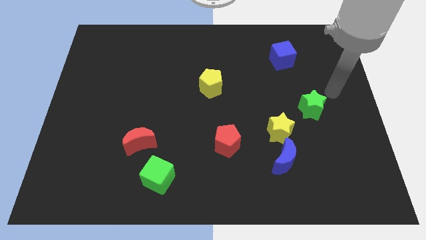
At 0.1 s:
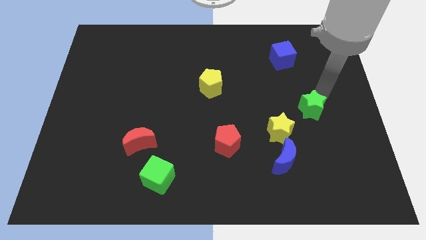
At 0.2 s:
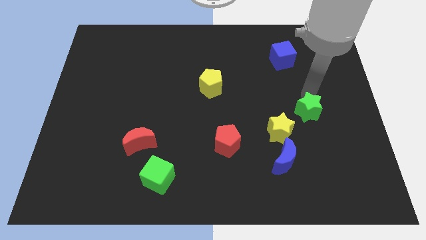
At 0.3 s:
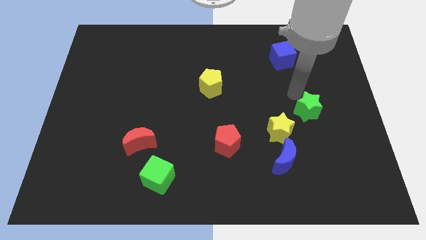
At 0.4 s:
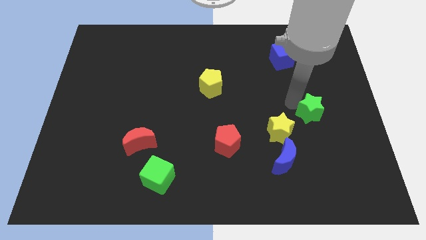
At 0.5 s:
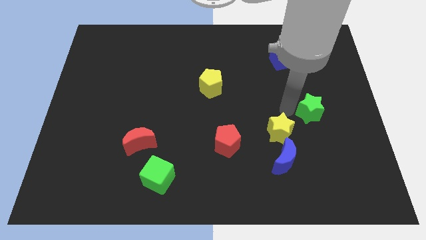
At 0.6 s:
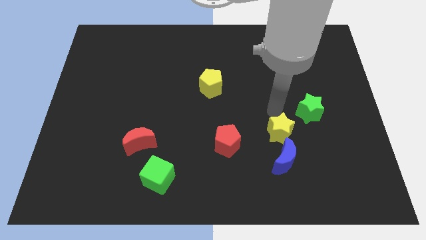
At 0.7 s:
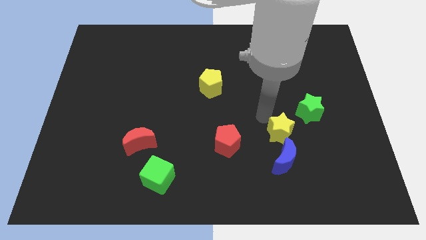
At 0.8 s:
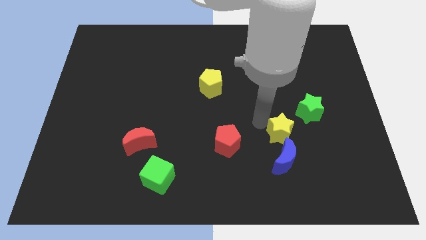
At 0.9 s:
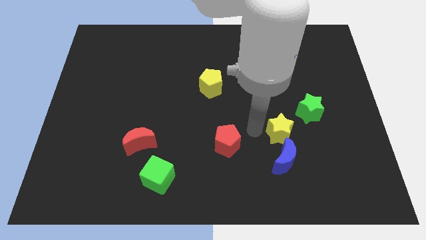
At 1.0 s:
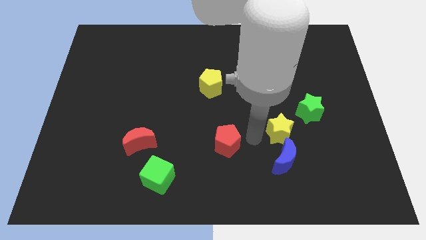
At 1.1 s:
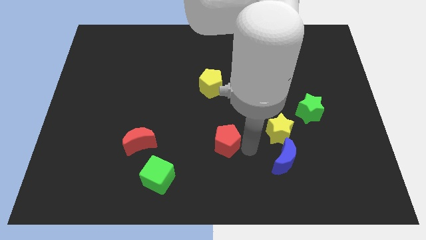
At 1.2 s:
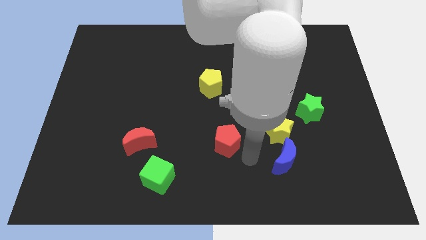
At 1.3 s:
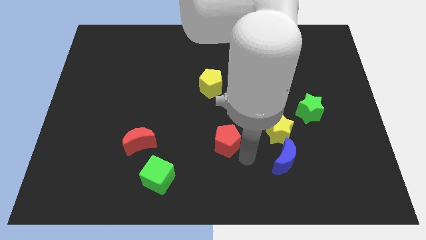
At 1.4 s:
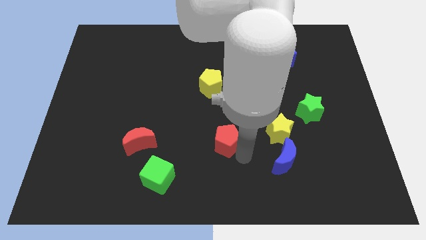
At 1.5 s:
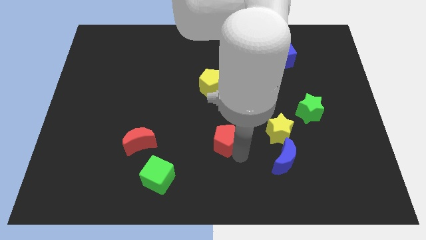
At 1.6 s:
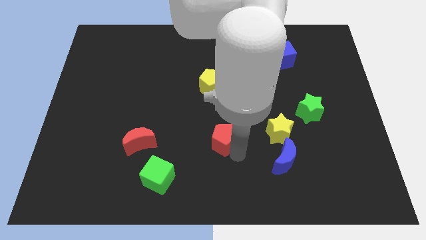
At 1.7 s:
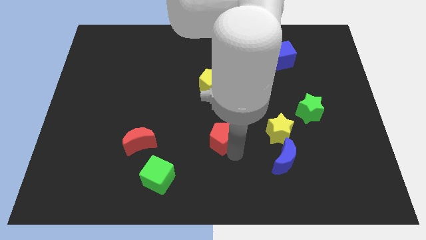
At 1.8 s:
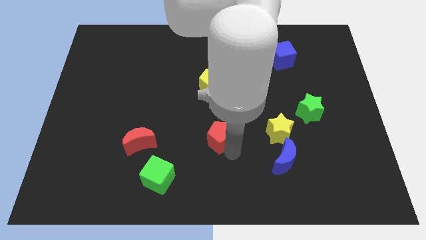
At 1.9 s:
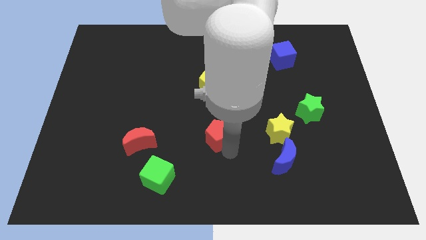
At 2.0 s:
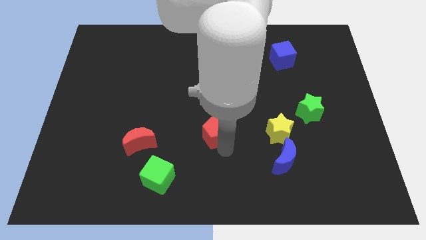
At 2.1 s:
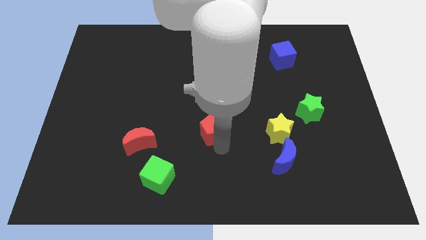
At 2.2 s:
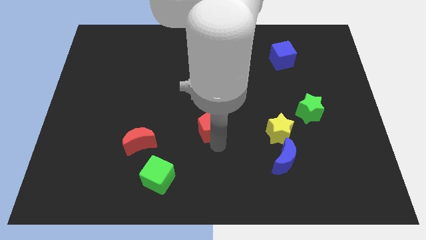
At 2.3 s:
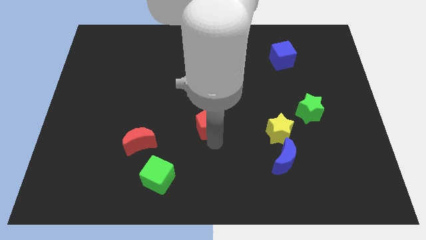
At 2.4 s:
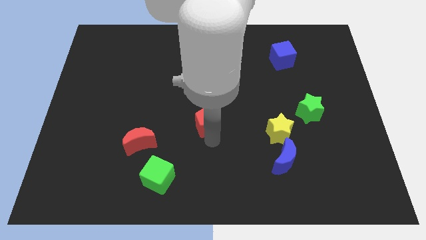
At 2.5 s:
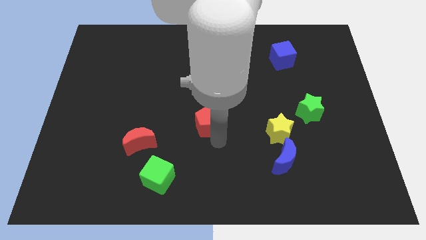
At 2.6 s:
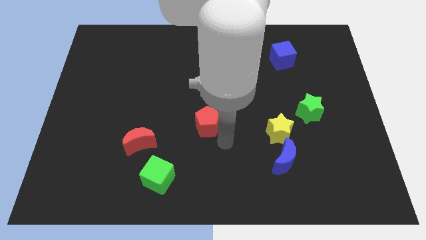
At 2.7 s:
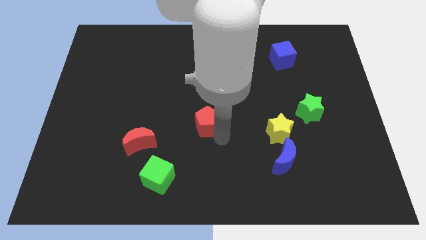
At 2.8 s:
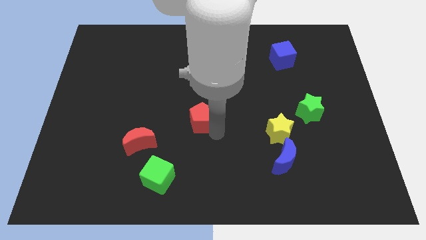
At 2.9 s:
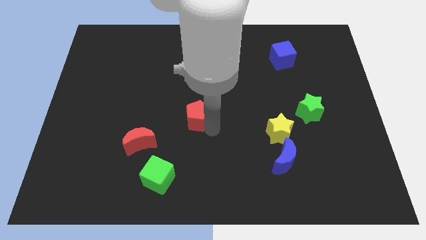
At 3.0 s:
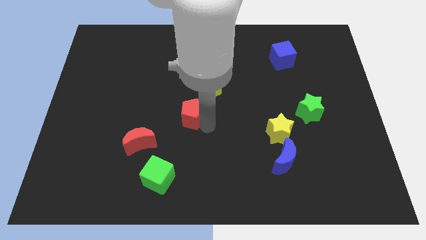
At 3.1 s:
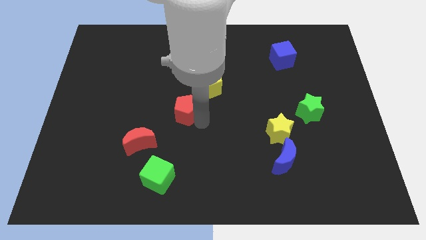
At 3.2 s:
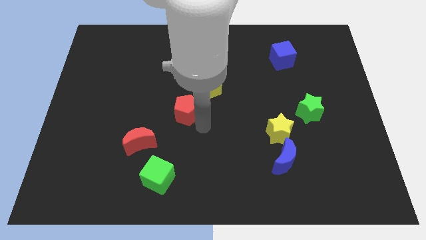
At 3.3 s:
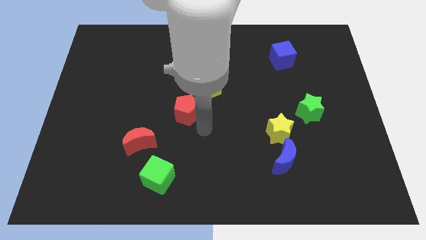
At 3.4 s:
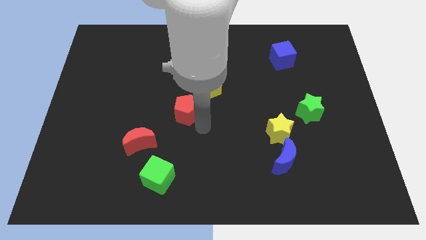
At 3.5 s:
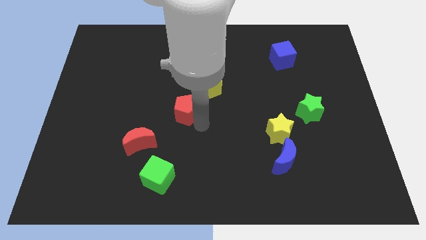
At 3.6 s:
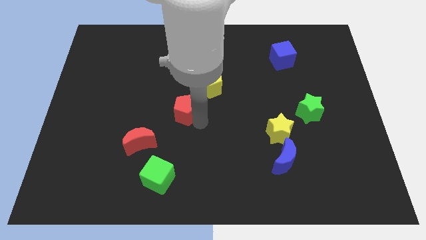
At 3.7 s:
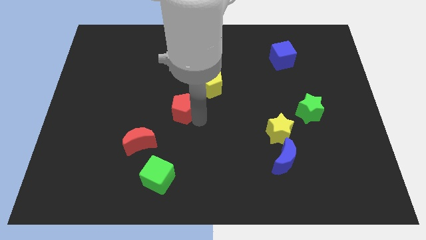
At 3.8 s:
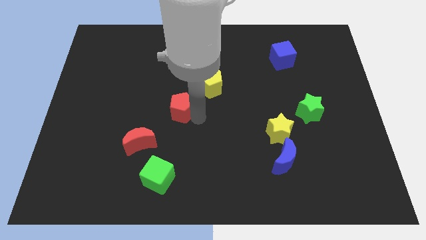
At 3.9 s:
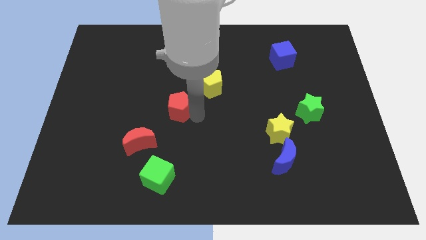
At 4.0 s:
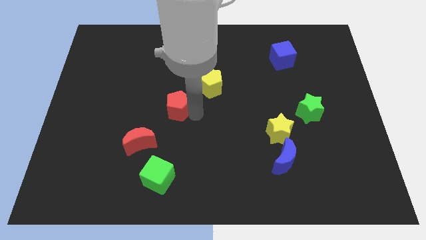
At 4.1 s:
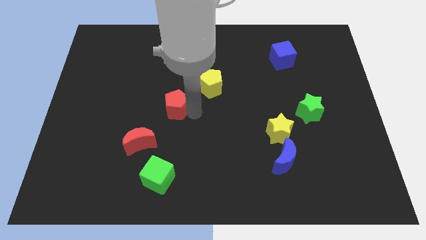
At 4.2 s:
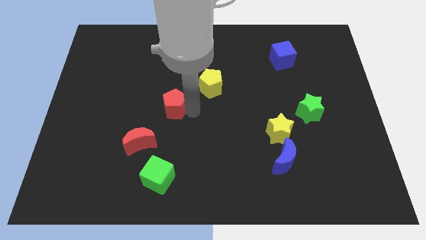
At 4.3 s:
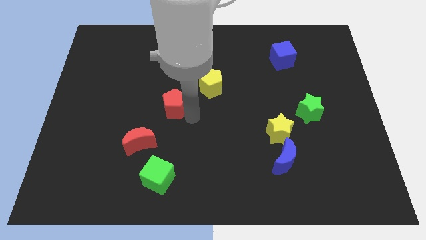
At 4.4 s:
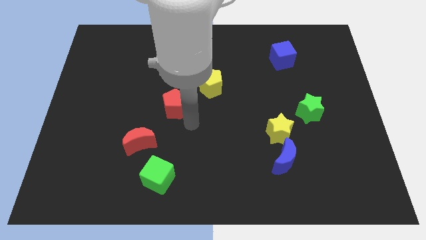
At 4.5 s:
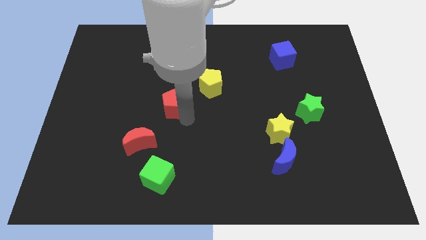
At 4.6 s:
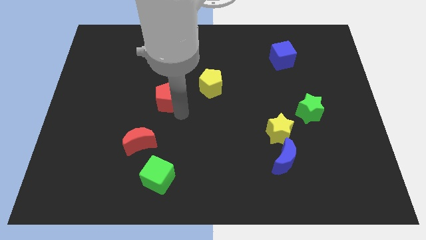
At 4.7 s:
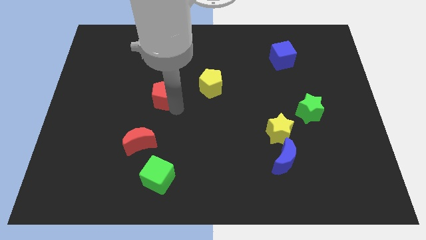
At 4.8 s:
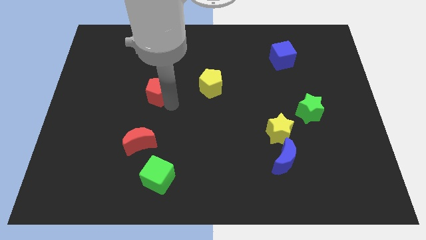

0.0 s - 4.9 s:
slide the red pentagon diagonally up and to the left

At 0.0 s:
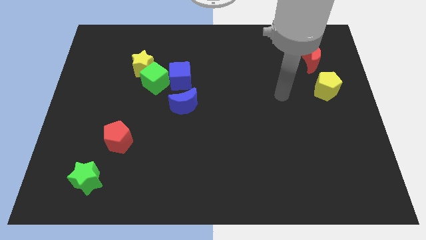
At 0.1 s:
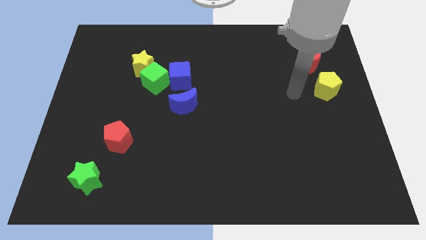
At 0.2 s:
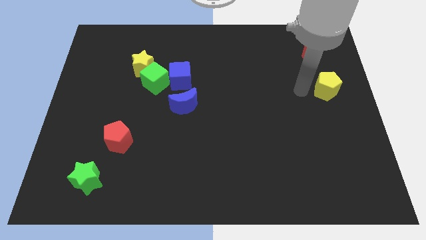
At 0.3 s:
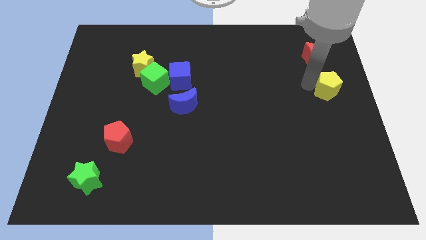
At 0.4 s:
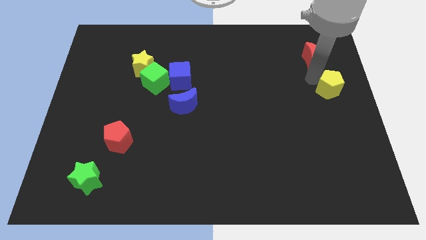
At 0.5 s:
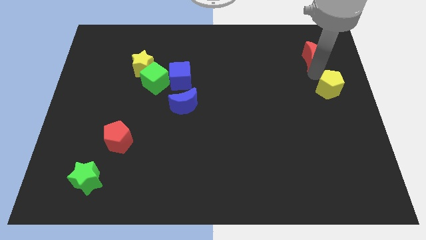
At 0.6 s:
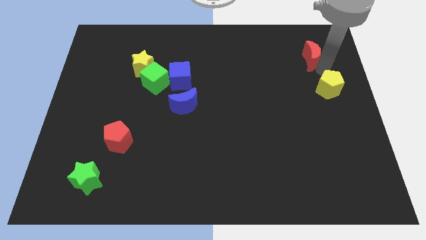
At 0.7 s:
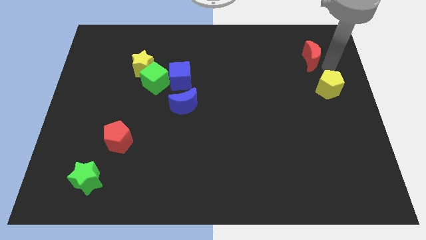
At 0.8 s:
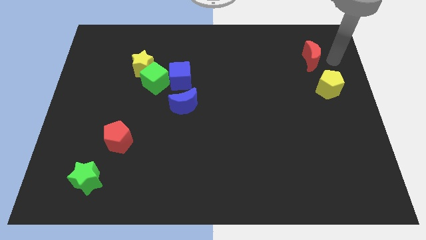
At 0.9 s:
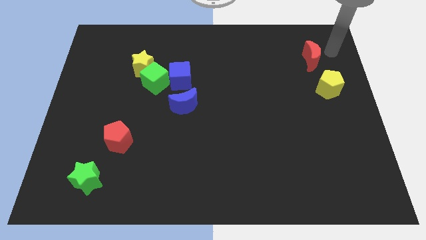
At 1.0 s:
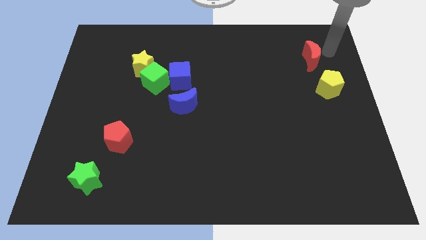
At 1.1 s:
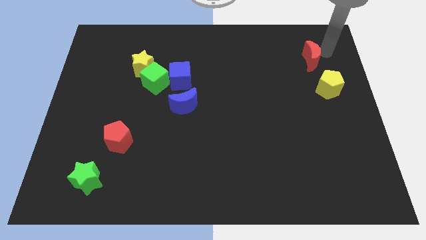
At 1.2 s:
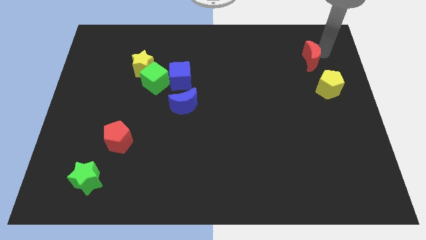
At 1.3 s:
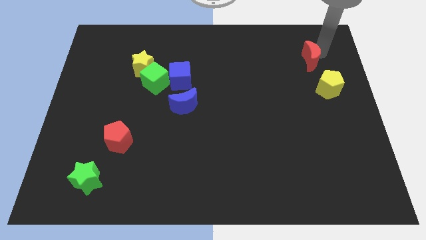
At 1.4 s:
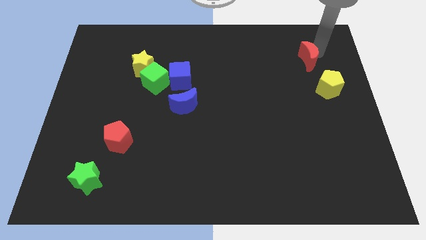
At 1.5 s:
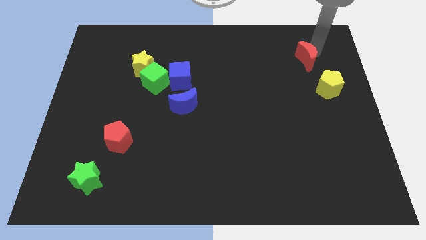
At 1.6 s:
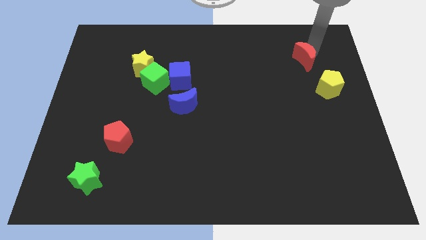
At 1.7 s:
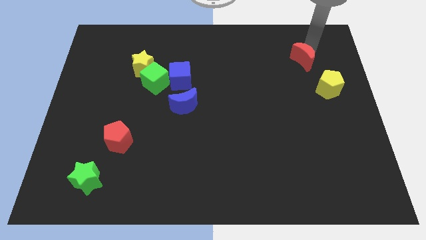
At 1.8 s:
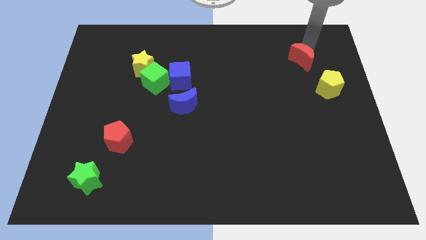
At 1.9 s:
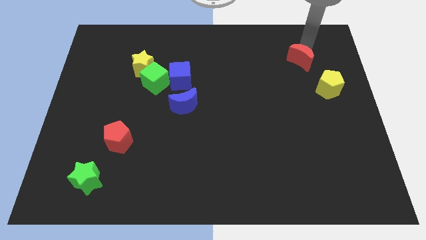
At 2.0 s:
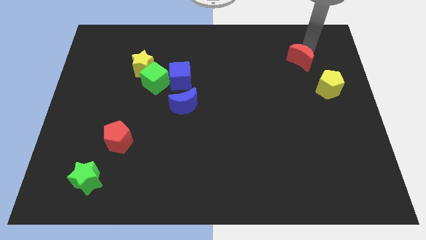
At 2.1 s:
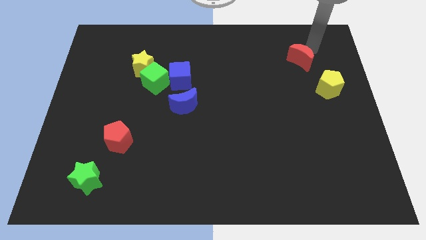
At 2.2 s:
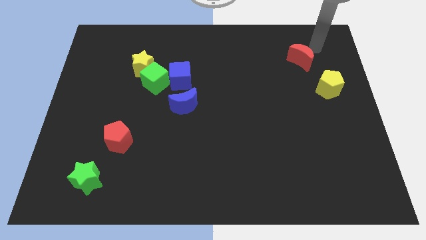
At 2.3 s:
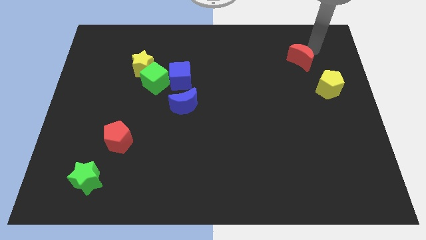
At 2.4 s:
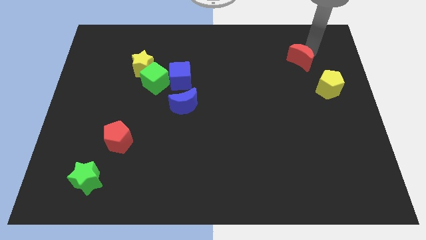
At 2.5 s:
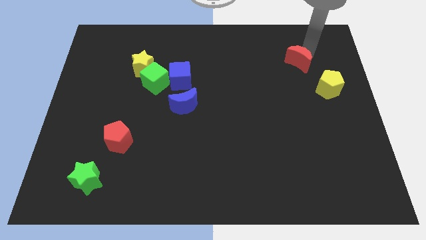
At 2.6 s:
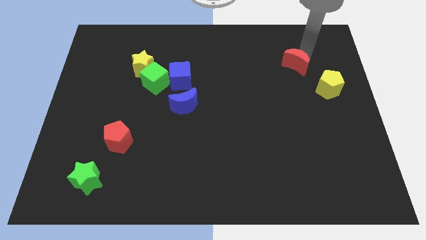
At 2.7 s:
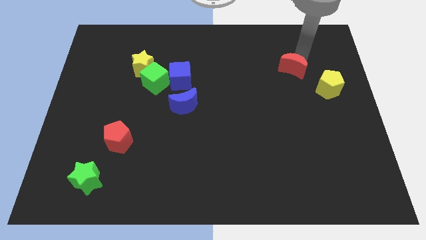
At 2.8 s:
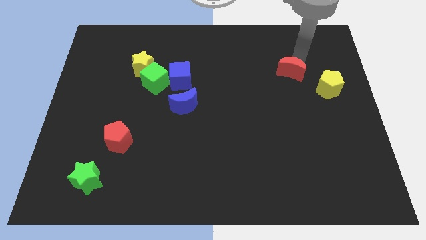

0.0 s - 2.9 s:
slide the red moon diagonally down and to the left a bit
